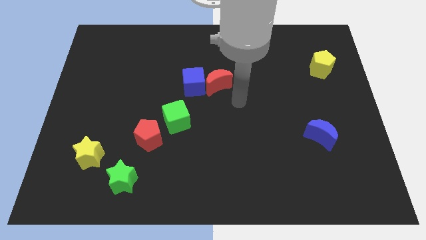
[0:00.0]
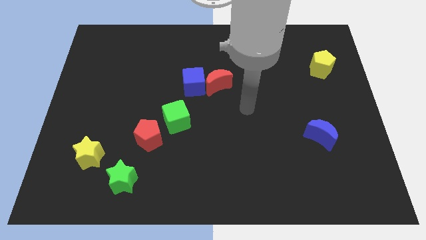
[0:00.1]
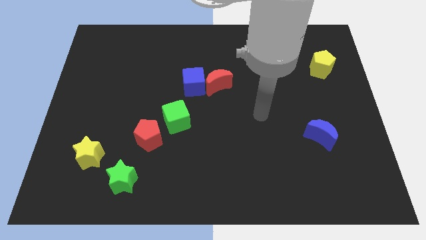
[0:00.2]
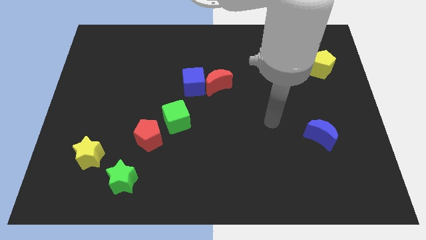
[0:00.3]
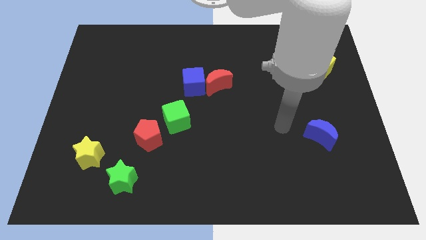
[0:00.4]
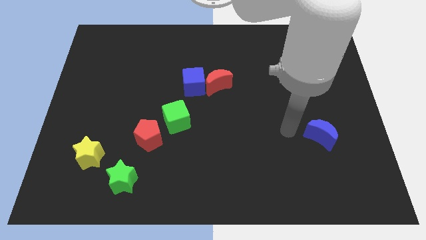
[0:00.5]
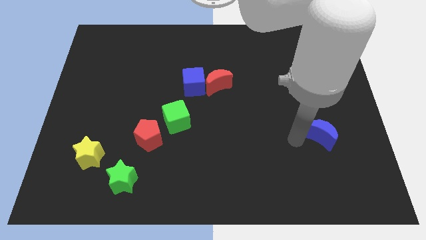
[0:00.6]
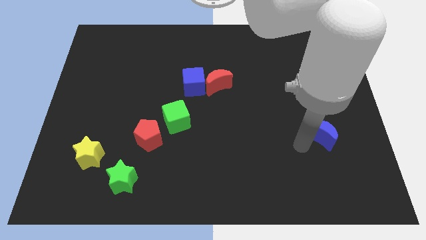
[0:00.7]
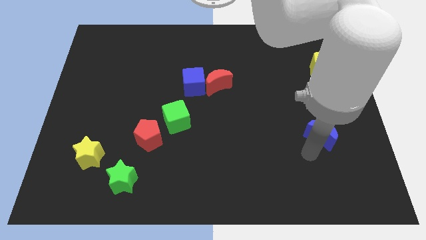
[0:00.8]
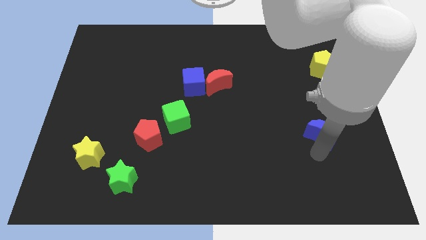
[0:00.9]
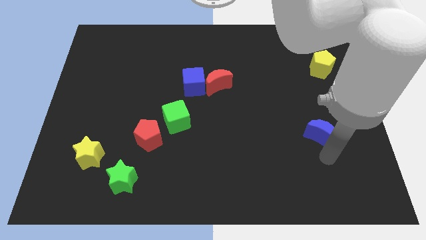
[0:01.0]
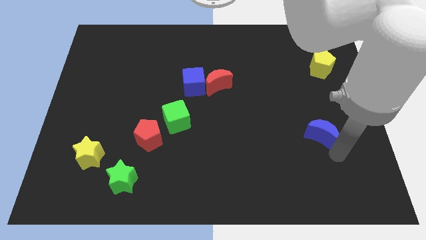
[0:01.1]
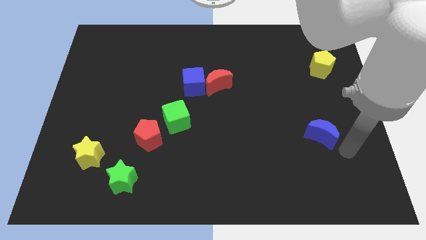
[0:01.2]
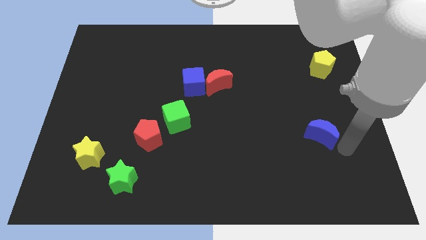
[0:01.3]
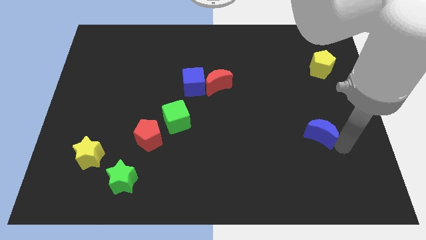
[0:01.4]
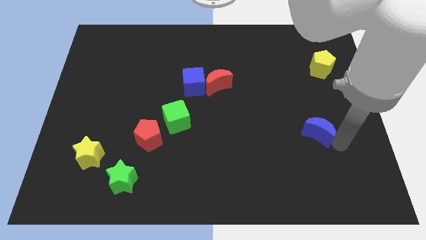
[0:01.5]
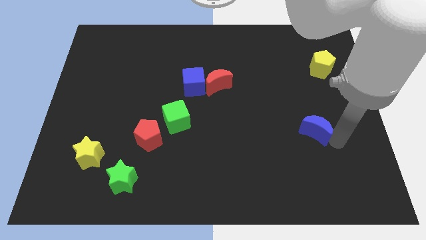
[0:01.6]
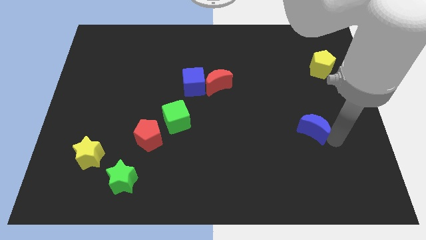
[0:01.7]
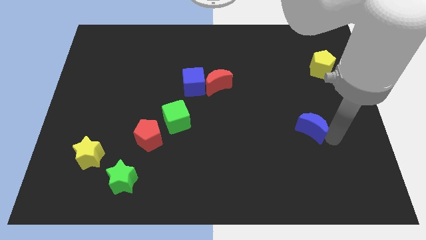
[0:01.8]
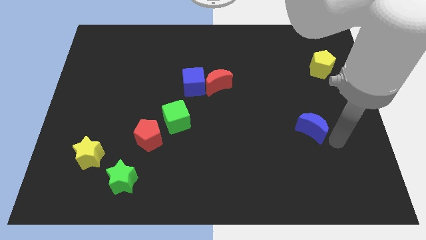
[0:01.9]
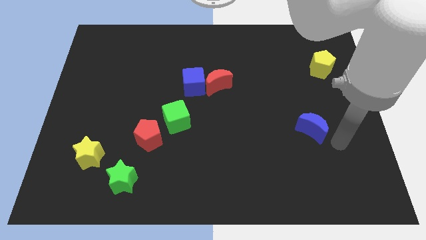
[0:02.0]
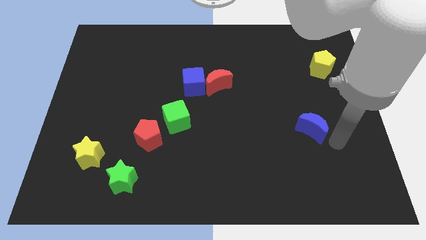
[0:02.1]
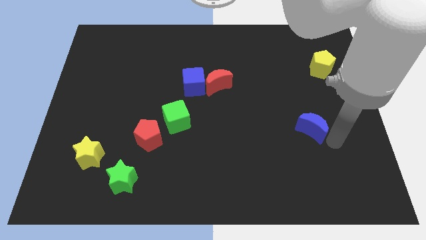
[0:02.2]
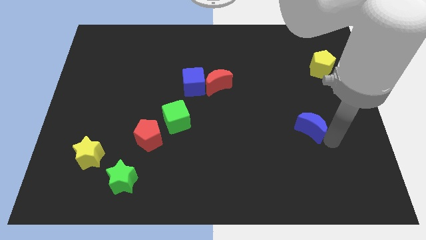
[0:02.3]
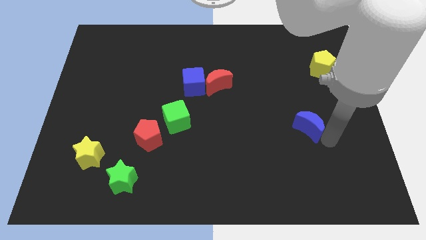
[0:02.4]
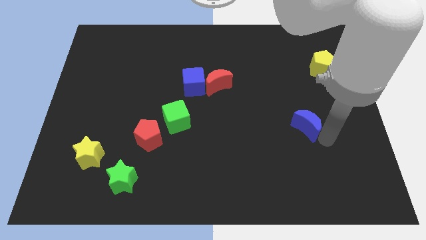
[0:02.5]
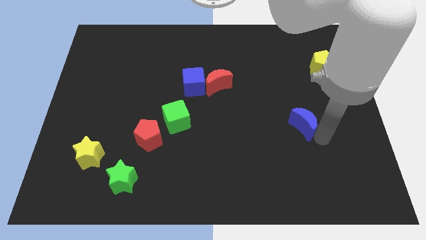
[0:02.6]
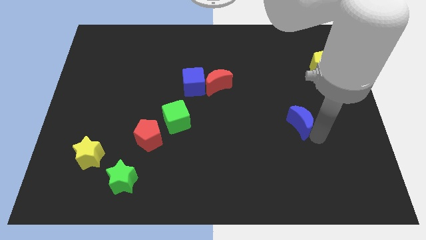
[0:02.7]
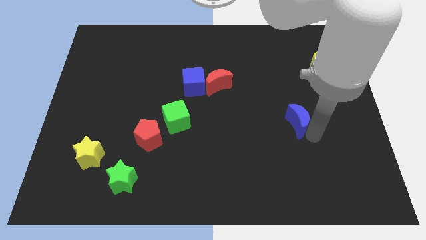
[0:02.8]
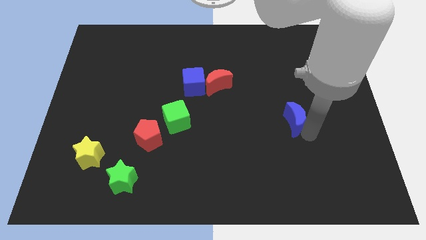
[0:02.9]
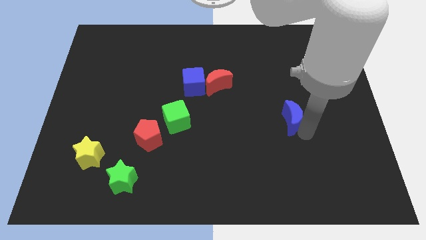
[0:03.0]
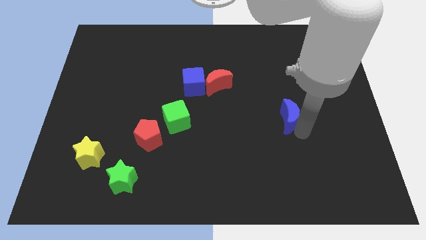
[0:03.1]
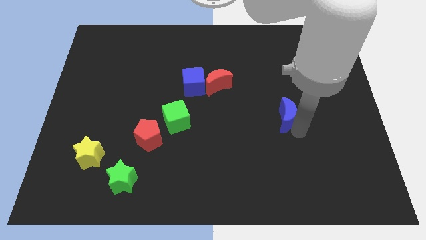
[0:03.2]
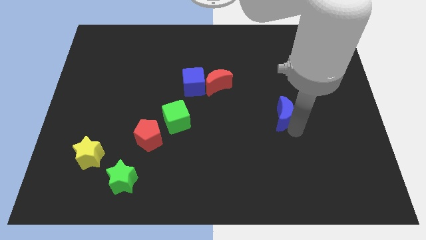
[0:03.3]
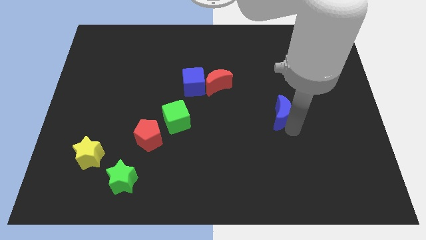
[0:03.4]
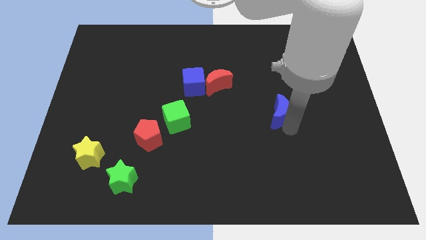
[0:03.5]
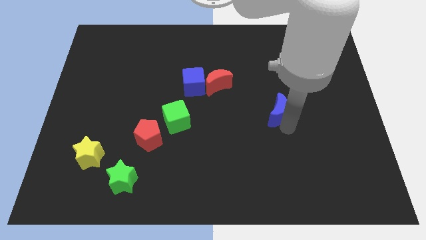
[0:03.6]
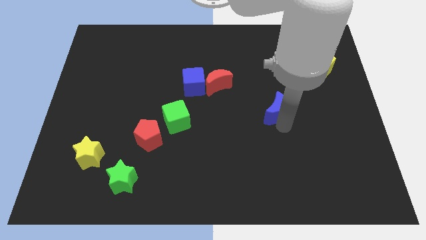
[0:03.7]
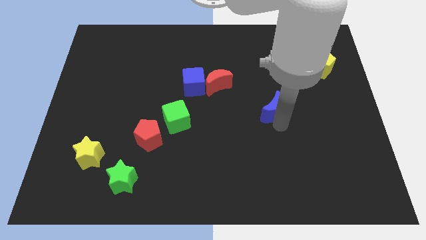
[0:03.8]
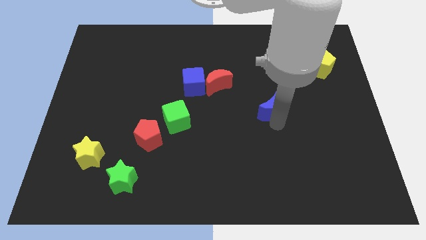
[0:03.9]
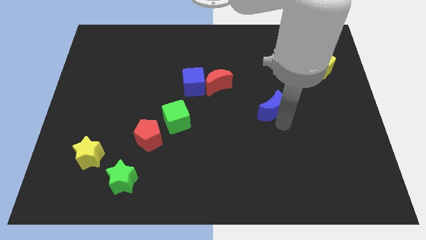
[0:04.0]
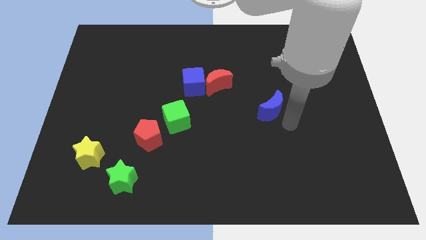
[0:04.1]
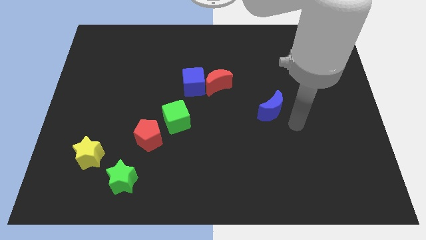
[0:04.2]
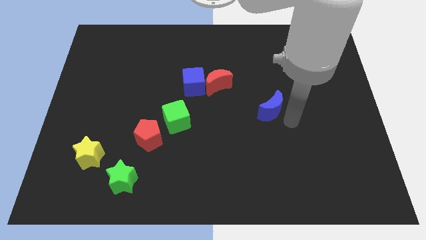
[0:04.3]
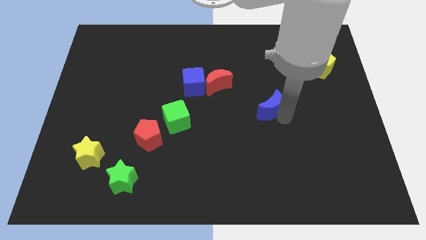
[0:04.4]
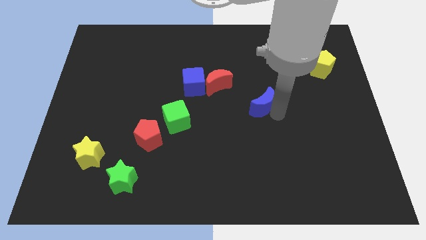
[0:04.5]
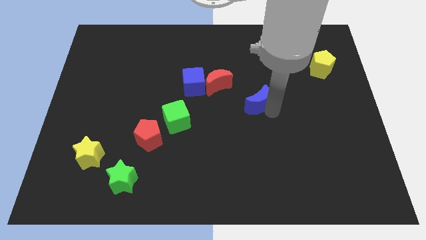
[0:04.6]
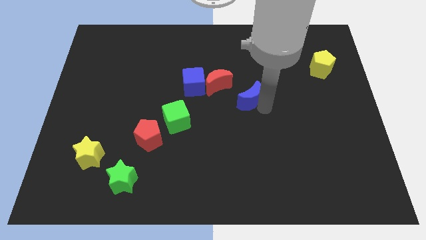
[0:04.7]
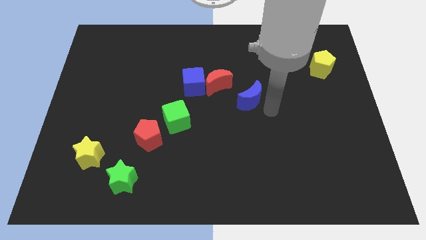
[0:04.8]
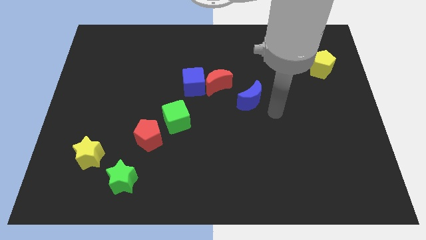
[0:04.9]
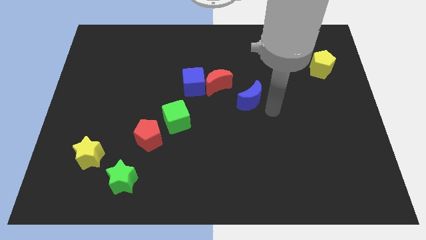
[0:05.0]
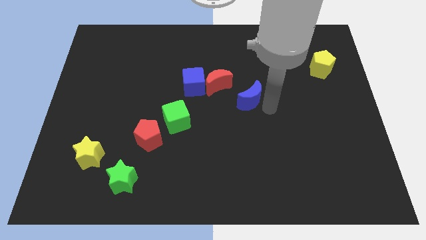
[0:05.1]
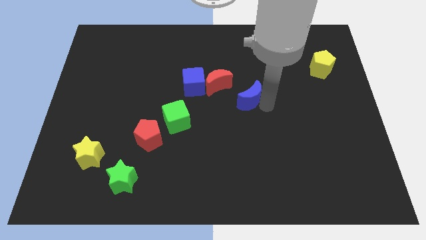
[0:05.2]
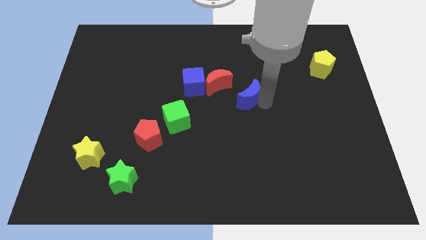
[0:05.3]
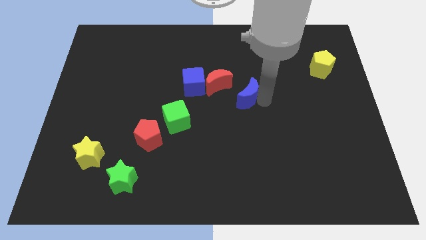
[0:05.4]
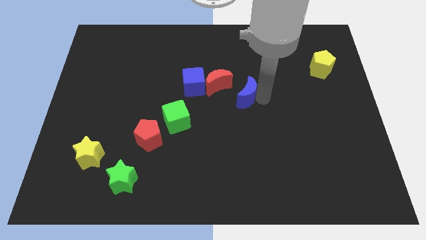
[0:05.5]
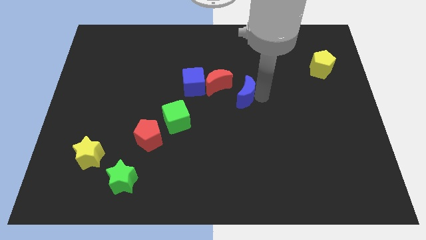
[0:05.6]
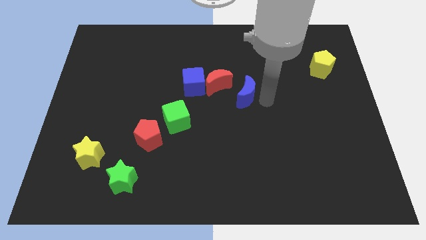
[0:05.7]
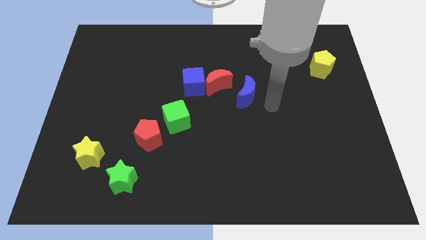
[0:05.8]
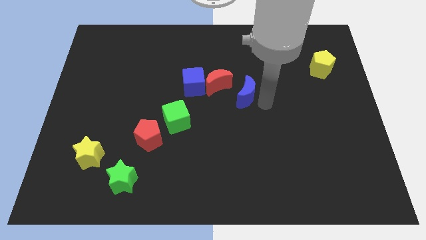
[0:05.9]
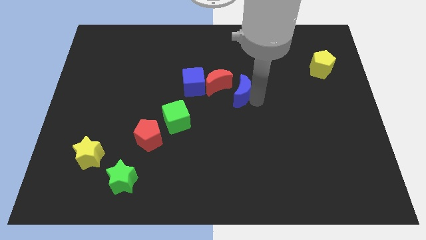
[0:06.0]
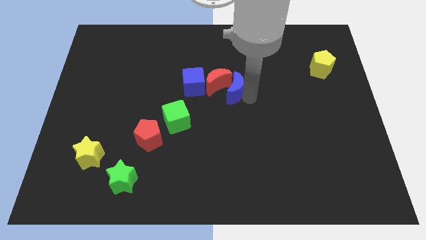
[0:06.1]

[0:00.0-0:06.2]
put the blue moon next to the red moon

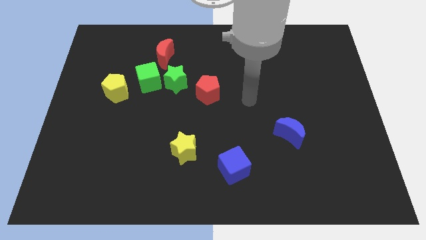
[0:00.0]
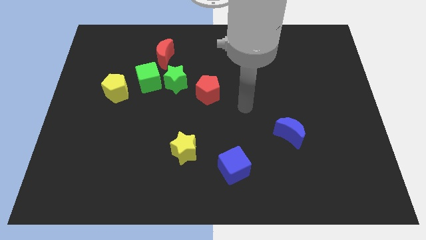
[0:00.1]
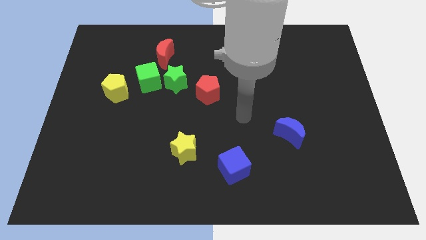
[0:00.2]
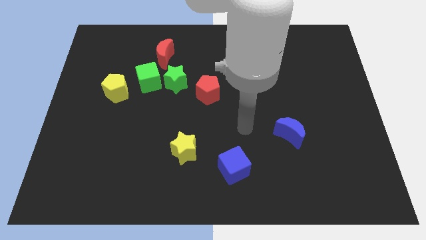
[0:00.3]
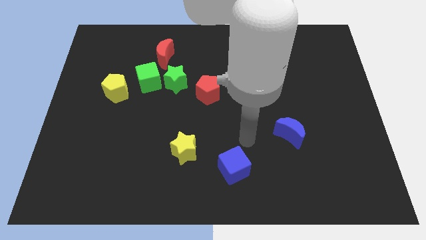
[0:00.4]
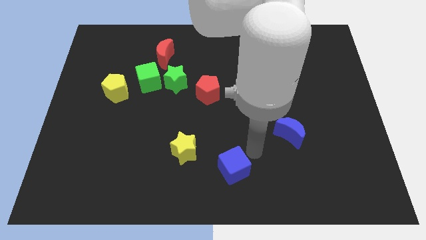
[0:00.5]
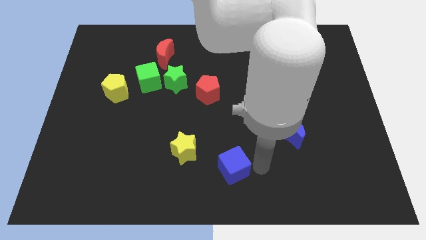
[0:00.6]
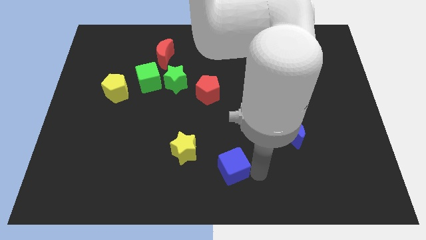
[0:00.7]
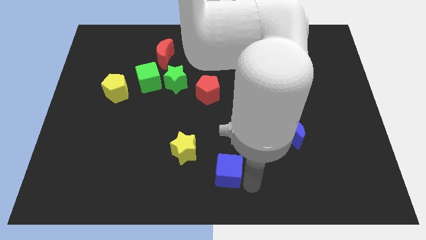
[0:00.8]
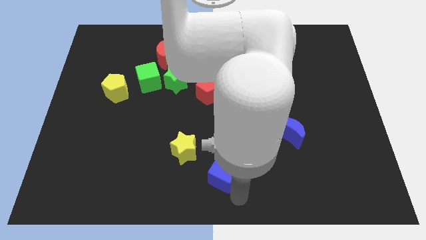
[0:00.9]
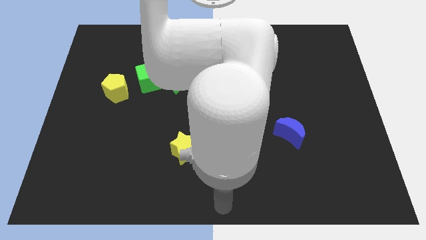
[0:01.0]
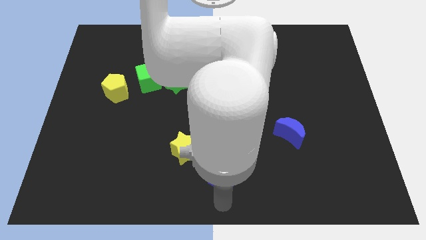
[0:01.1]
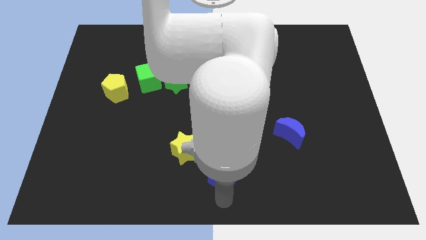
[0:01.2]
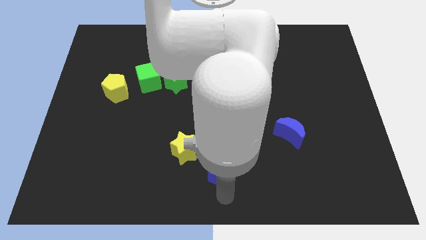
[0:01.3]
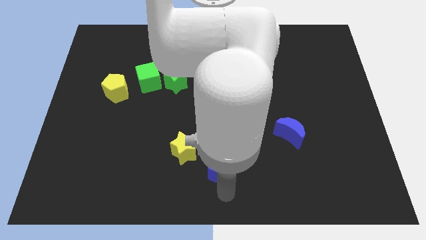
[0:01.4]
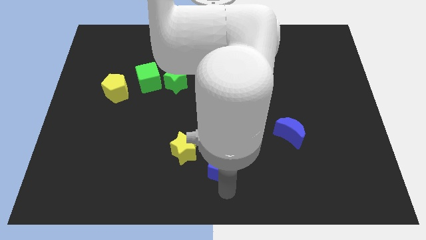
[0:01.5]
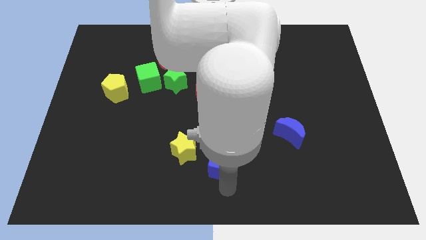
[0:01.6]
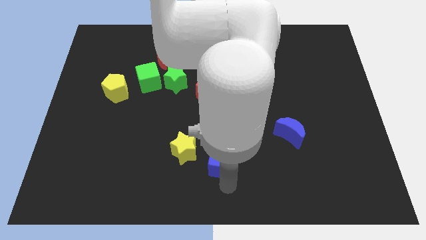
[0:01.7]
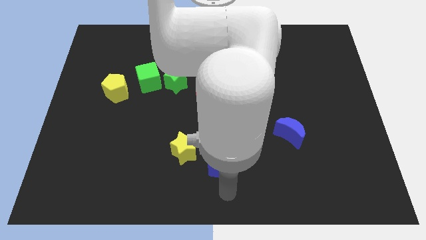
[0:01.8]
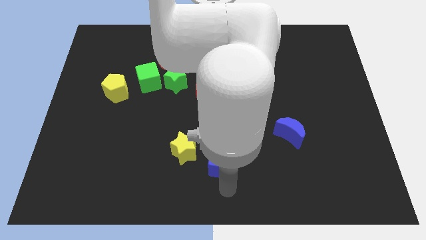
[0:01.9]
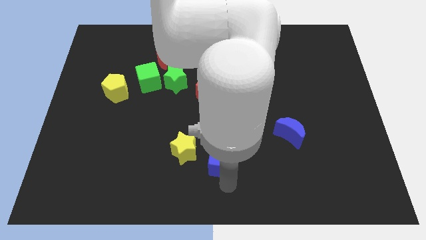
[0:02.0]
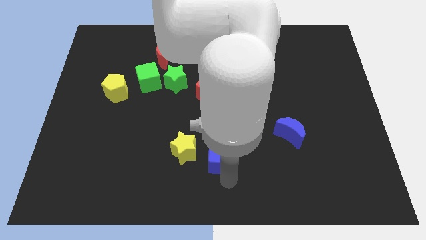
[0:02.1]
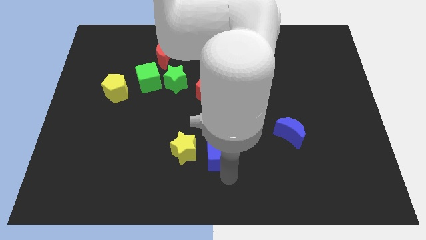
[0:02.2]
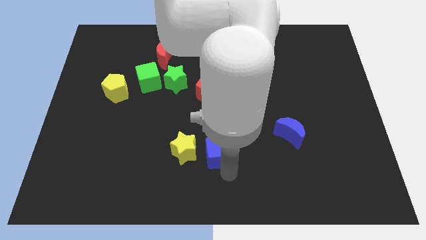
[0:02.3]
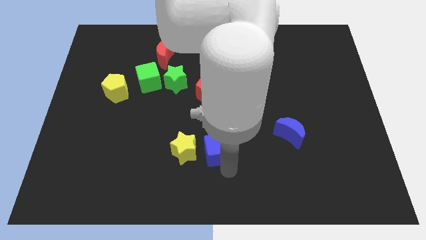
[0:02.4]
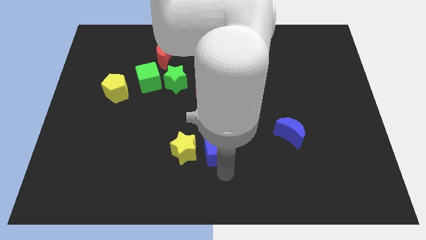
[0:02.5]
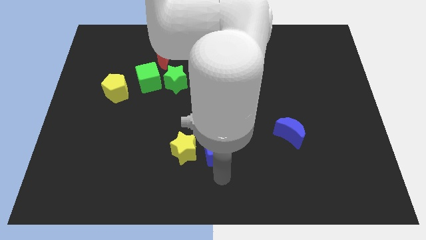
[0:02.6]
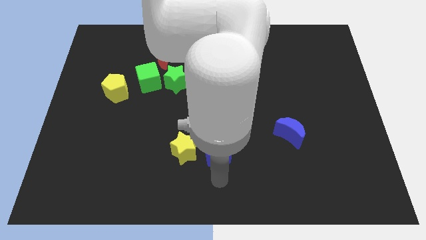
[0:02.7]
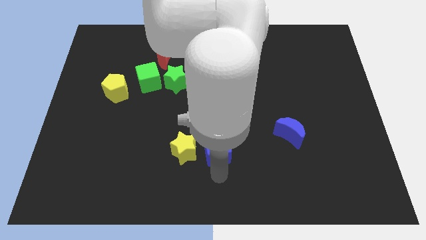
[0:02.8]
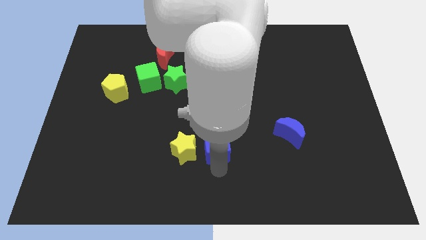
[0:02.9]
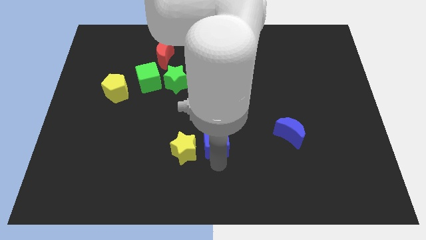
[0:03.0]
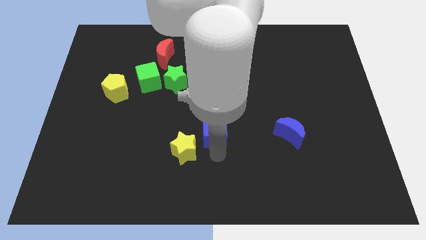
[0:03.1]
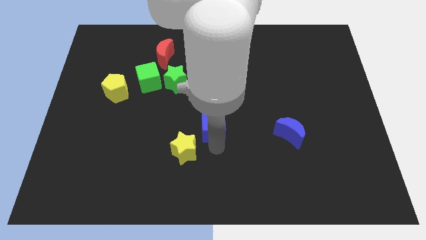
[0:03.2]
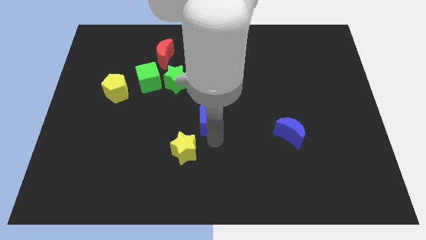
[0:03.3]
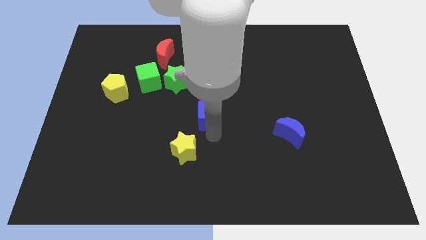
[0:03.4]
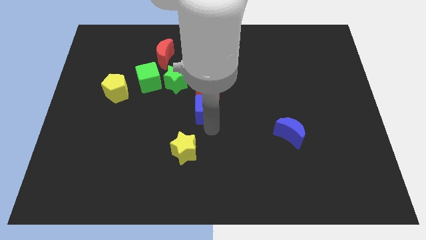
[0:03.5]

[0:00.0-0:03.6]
put the blue cube to the red pentagon
